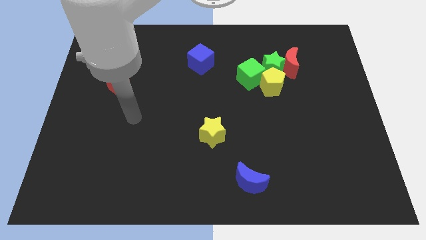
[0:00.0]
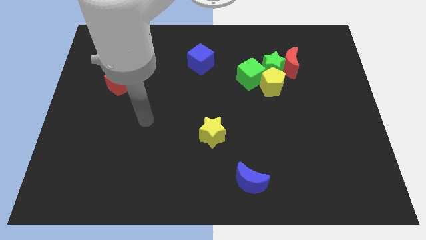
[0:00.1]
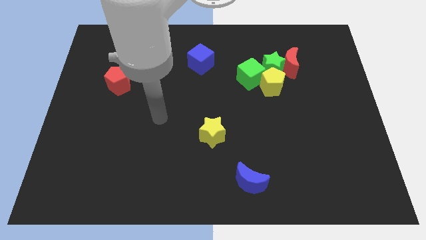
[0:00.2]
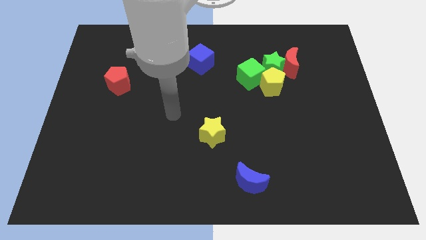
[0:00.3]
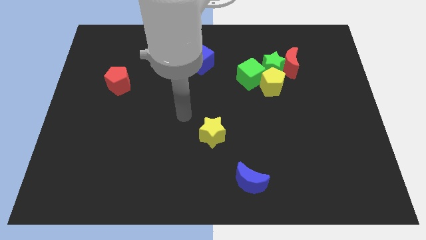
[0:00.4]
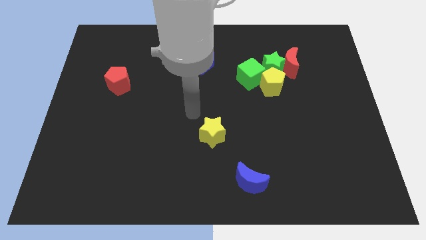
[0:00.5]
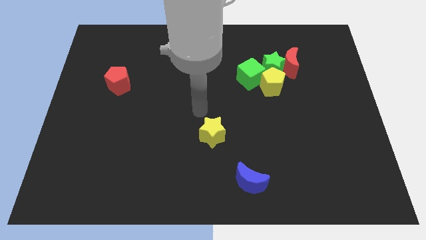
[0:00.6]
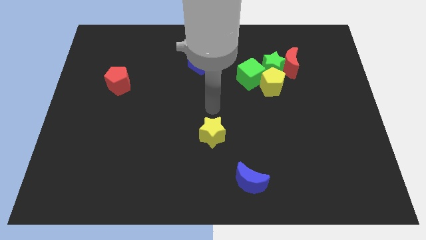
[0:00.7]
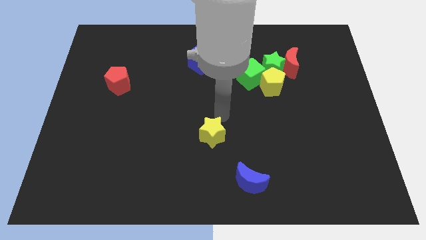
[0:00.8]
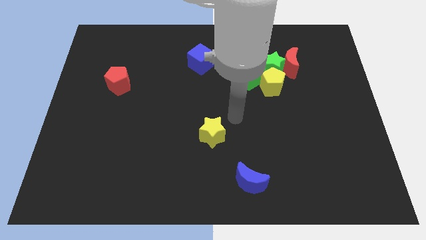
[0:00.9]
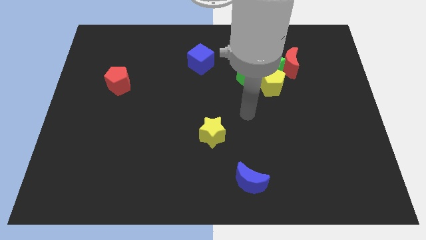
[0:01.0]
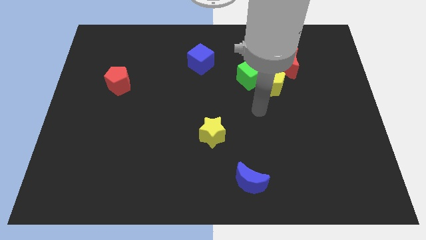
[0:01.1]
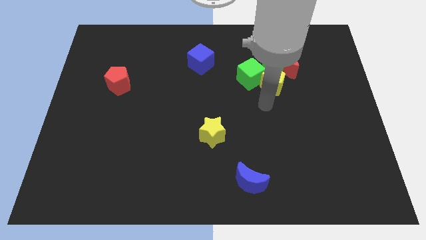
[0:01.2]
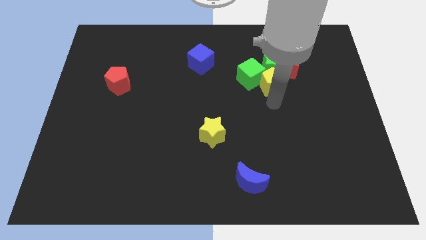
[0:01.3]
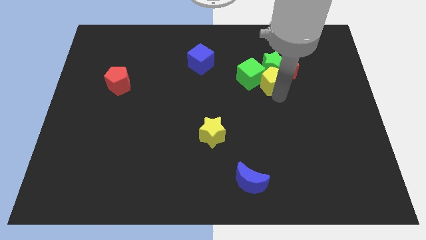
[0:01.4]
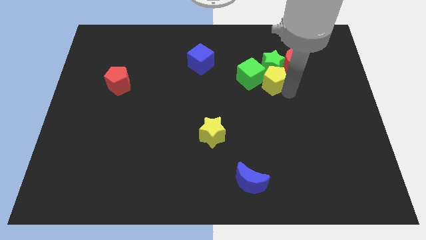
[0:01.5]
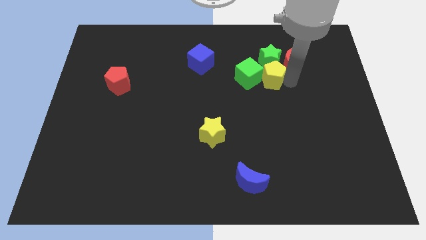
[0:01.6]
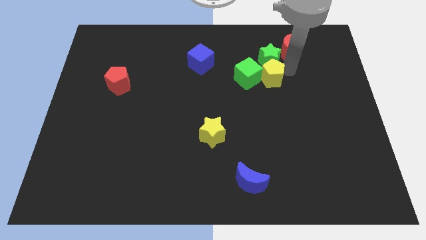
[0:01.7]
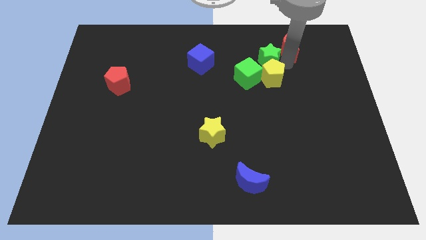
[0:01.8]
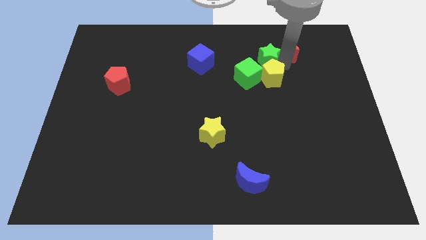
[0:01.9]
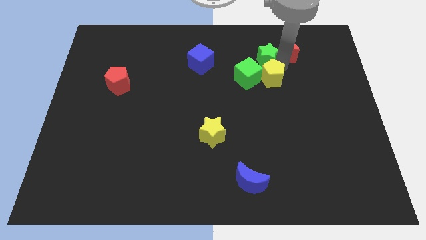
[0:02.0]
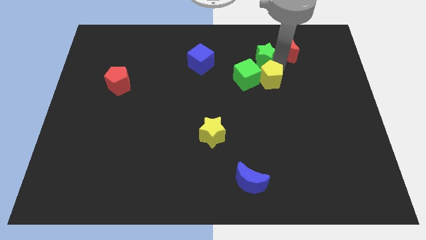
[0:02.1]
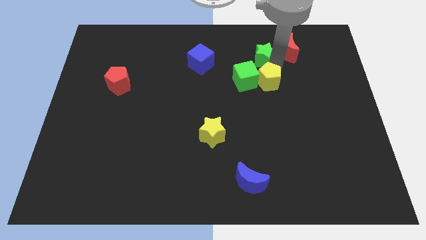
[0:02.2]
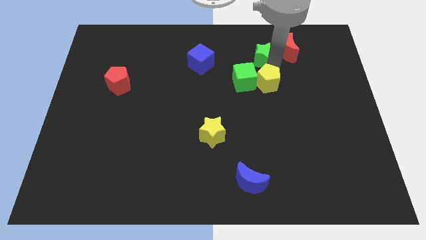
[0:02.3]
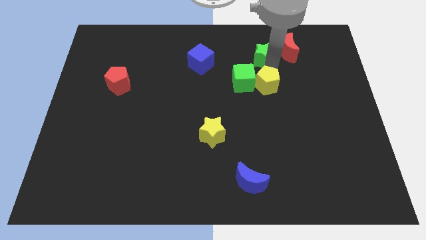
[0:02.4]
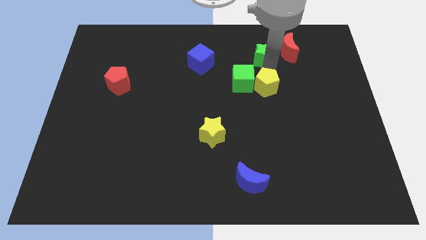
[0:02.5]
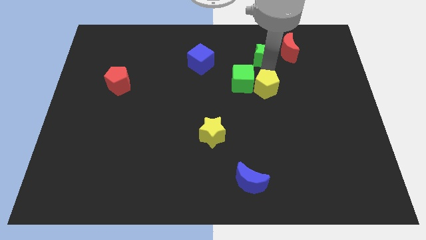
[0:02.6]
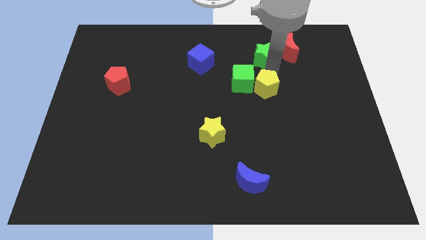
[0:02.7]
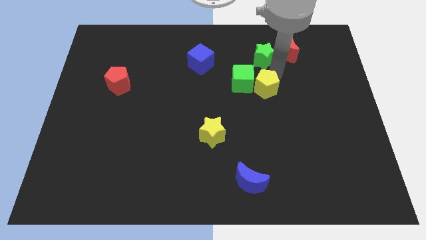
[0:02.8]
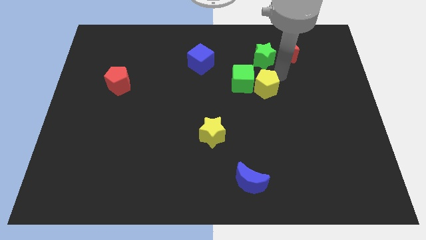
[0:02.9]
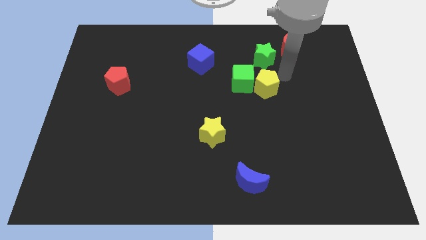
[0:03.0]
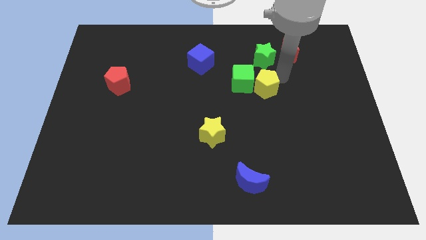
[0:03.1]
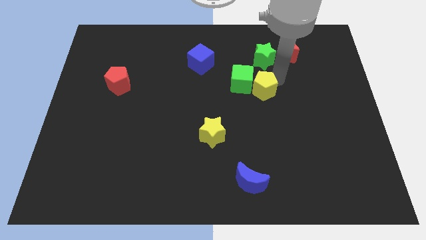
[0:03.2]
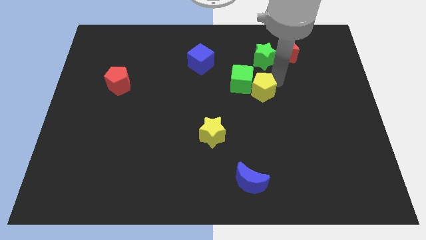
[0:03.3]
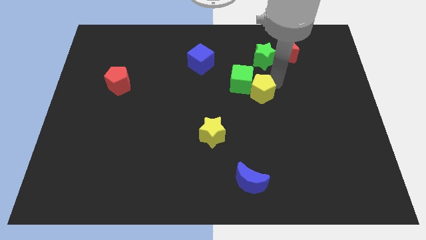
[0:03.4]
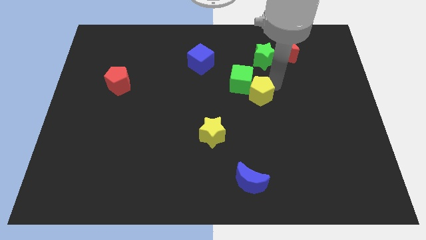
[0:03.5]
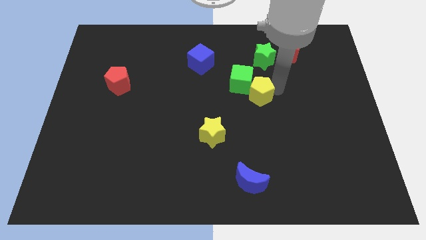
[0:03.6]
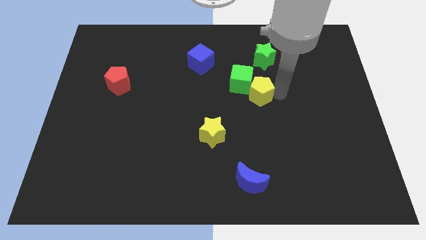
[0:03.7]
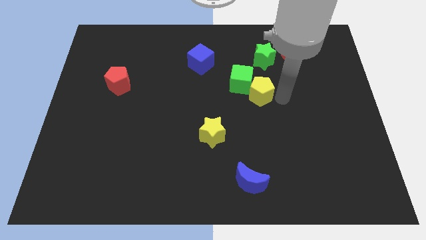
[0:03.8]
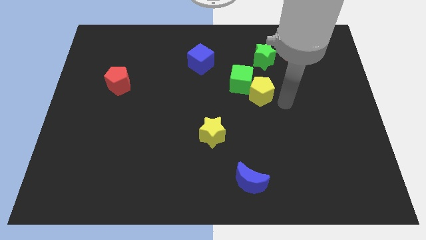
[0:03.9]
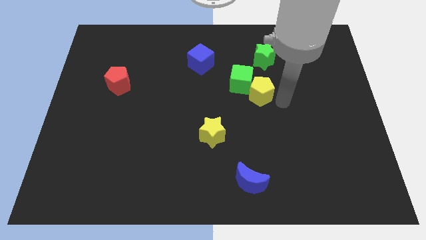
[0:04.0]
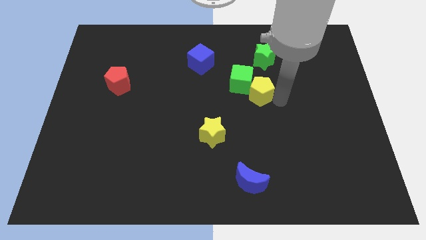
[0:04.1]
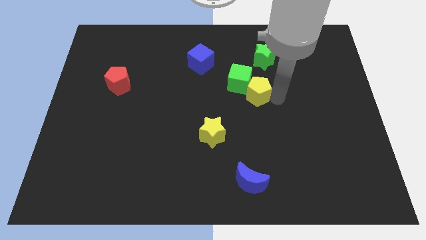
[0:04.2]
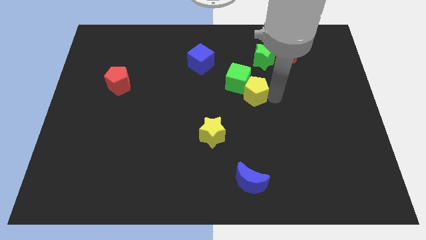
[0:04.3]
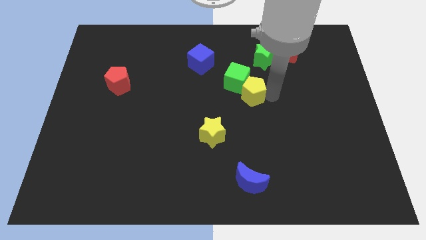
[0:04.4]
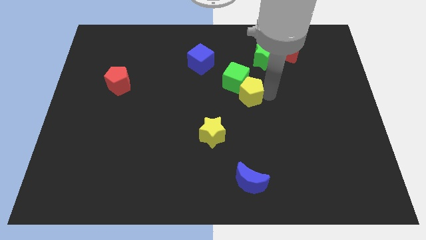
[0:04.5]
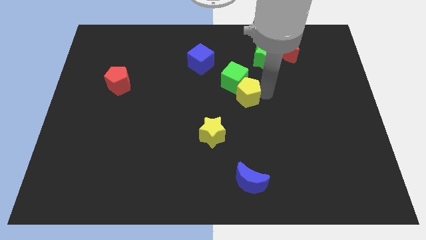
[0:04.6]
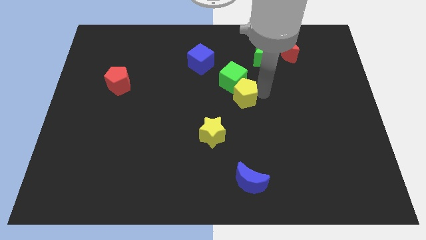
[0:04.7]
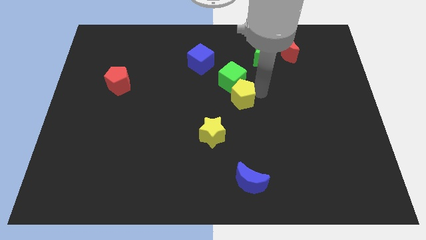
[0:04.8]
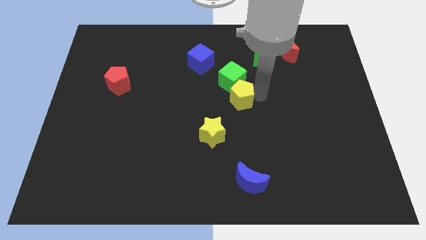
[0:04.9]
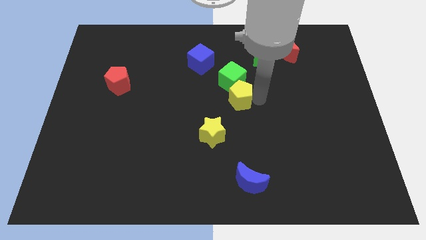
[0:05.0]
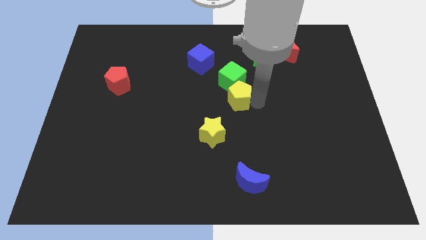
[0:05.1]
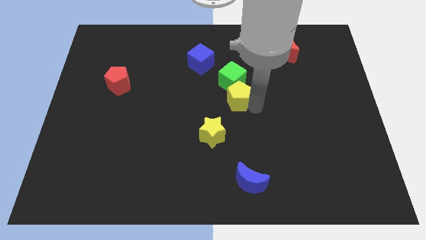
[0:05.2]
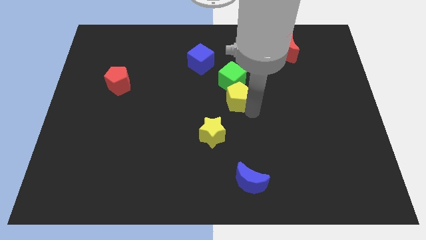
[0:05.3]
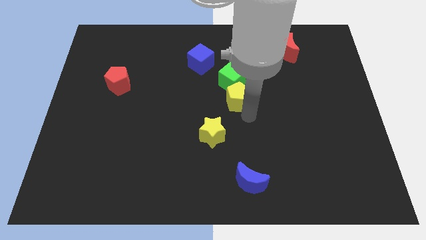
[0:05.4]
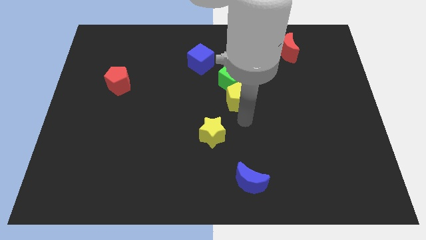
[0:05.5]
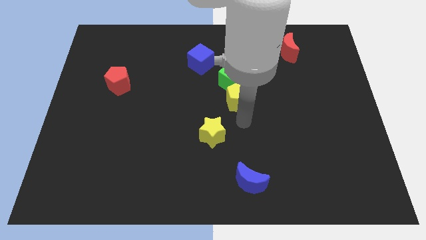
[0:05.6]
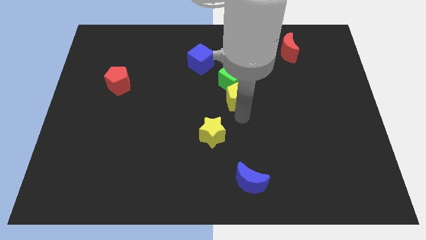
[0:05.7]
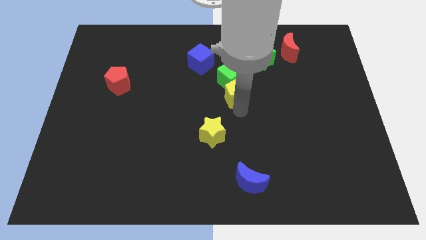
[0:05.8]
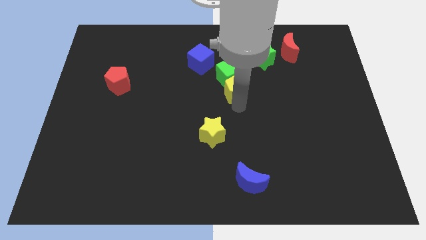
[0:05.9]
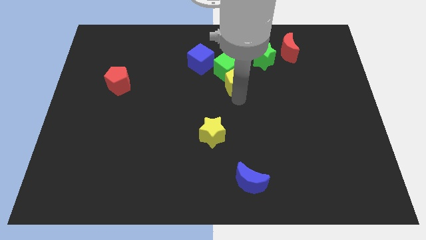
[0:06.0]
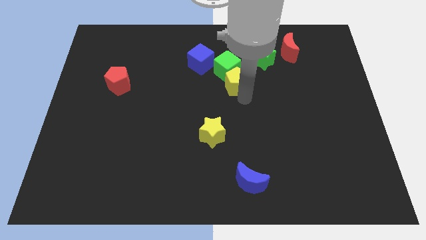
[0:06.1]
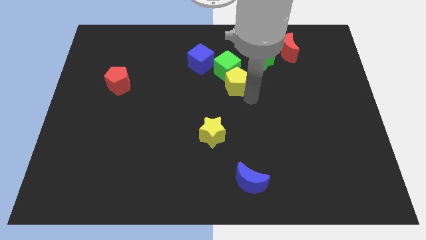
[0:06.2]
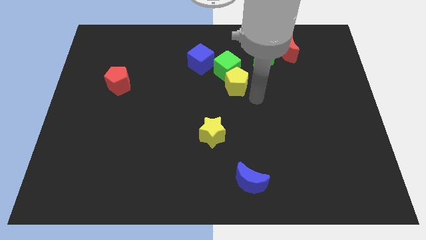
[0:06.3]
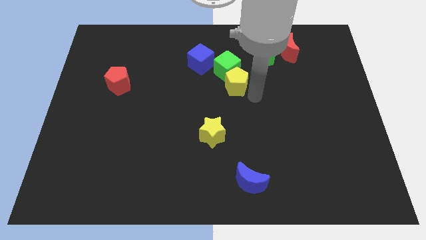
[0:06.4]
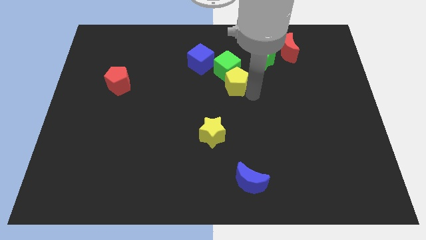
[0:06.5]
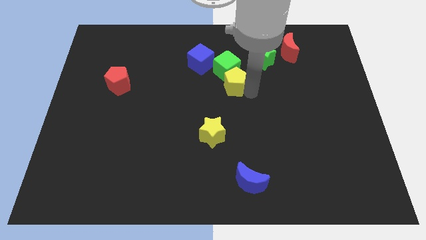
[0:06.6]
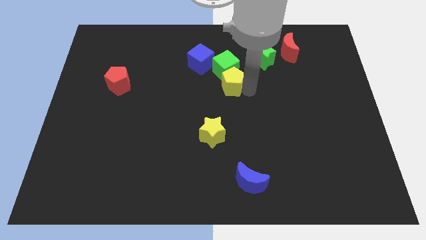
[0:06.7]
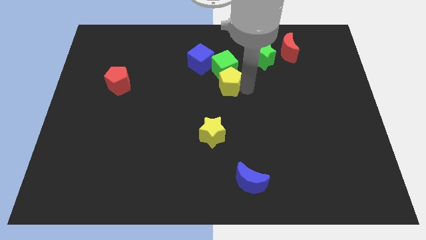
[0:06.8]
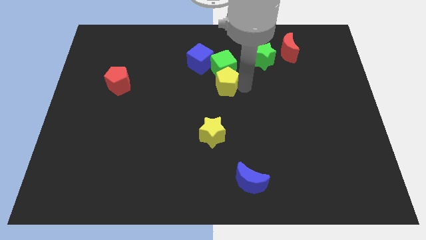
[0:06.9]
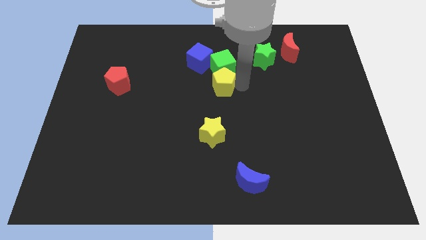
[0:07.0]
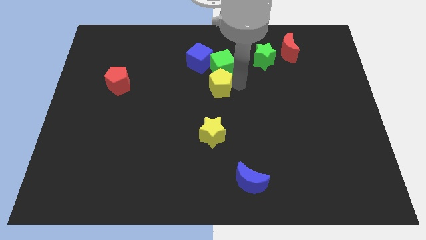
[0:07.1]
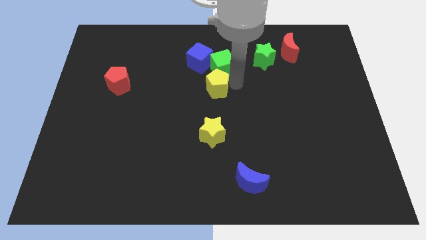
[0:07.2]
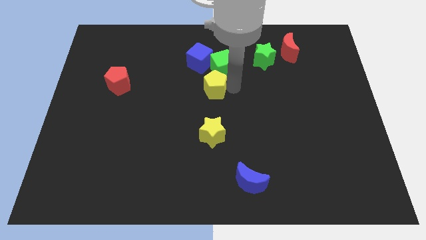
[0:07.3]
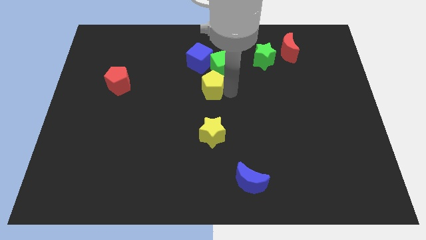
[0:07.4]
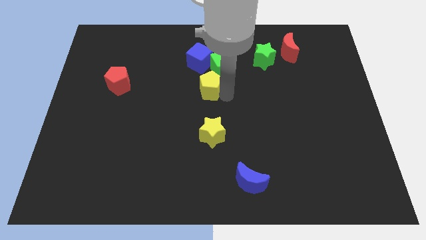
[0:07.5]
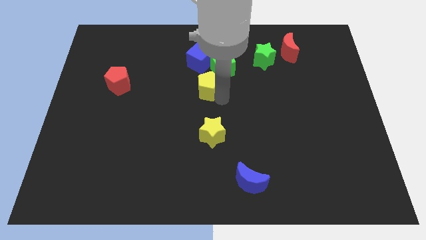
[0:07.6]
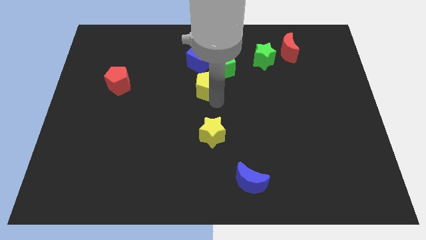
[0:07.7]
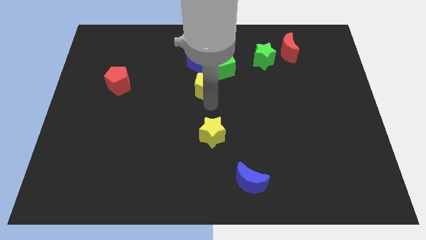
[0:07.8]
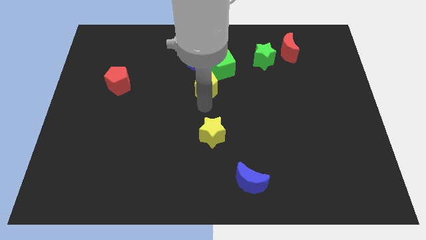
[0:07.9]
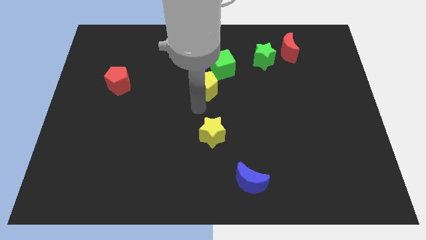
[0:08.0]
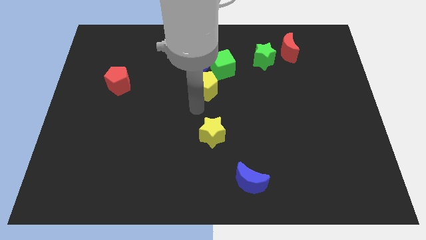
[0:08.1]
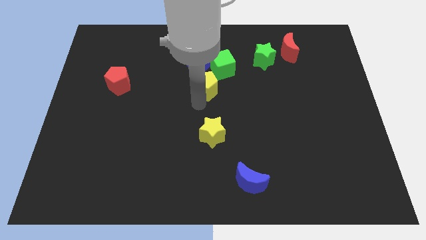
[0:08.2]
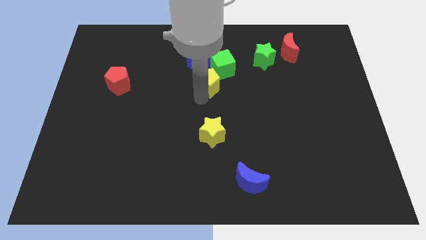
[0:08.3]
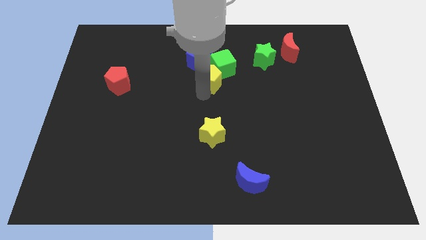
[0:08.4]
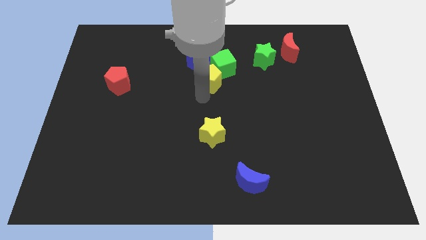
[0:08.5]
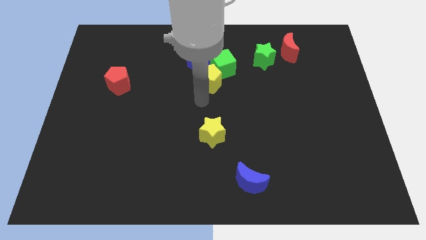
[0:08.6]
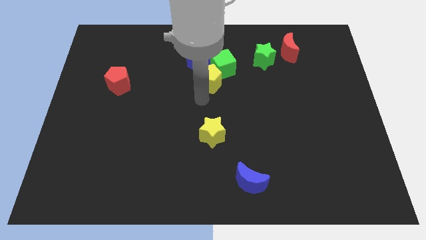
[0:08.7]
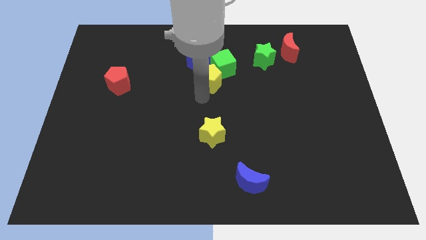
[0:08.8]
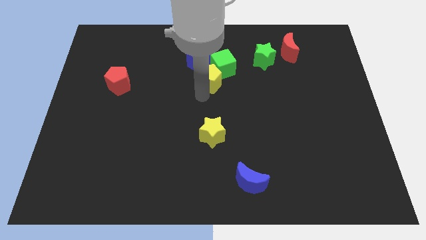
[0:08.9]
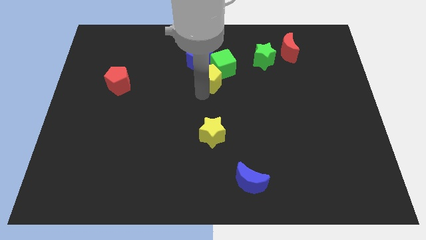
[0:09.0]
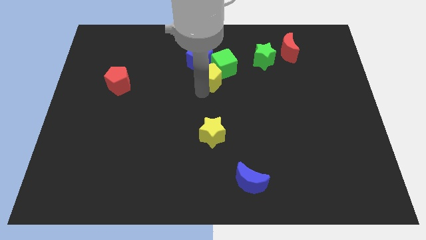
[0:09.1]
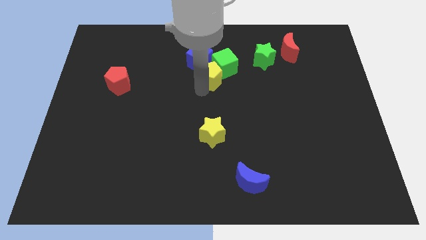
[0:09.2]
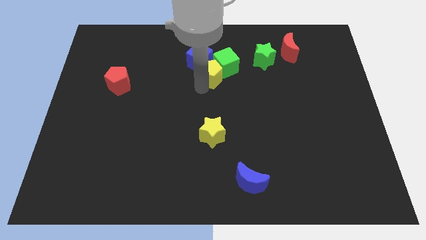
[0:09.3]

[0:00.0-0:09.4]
move the yellow pentagon next to the blue cube
